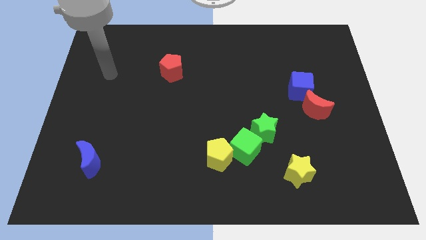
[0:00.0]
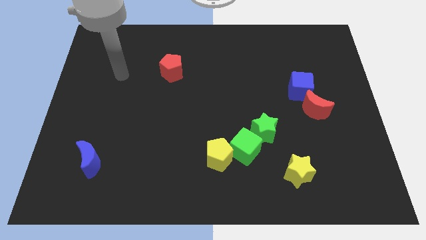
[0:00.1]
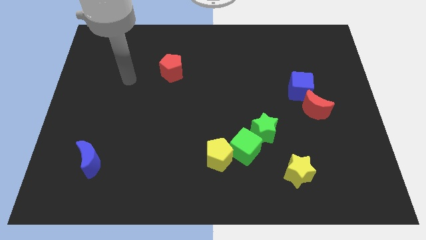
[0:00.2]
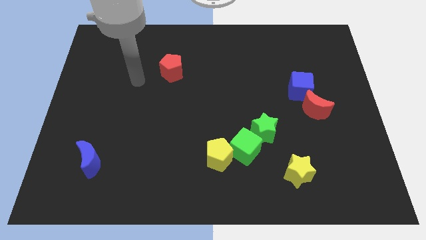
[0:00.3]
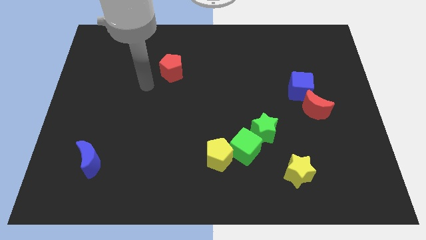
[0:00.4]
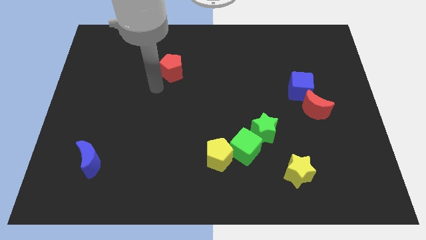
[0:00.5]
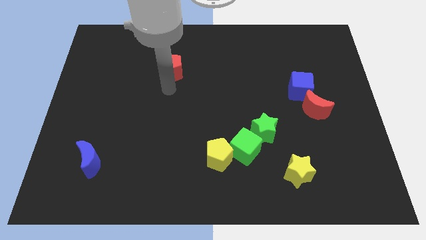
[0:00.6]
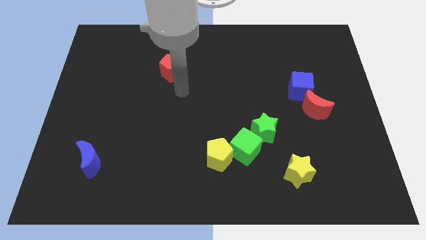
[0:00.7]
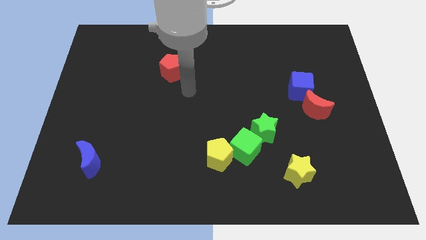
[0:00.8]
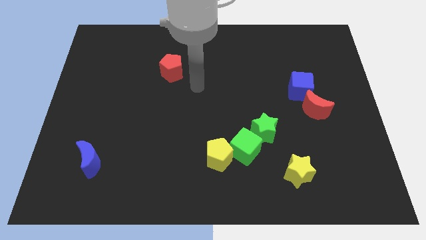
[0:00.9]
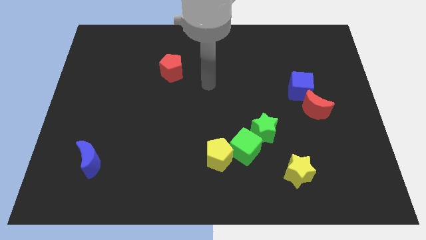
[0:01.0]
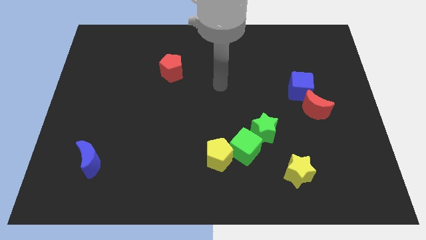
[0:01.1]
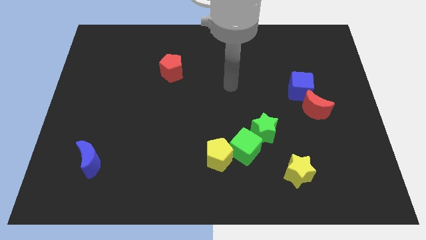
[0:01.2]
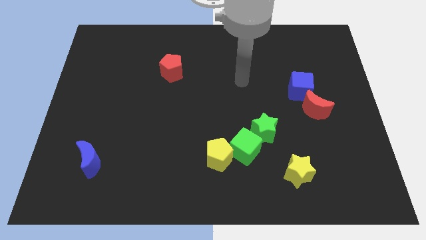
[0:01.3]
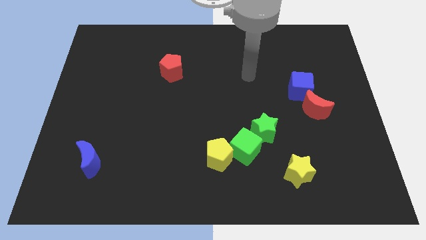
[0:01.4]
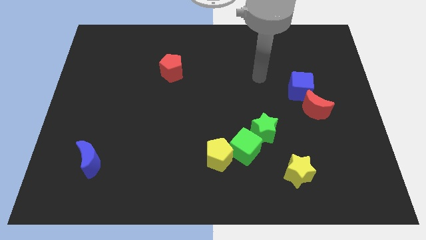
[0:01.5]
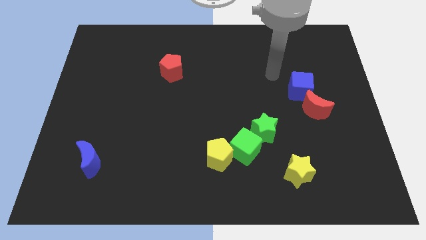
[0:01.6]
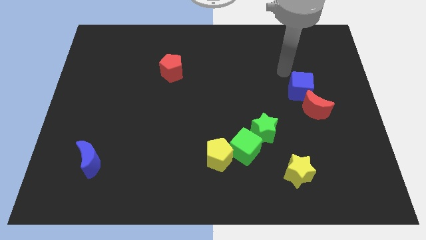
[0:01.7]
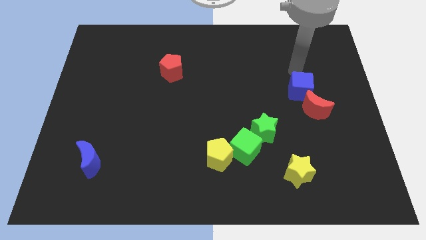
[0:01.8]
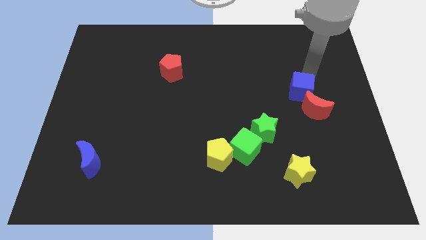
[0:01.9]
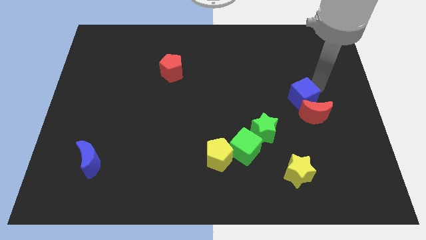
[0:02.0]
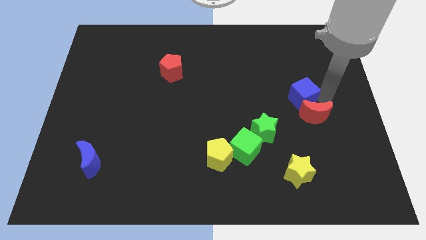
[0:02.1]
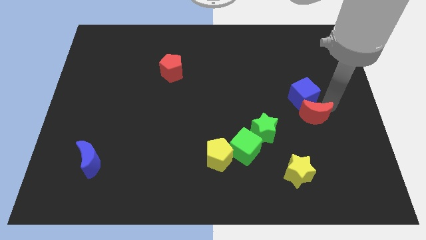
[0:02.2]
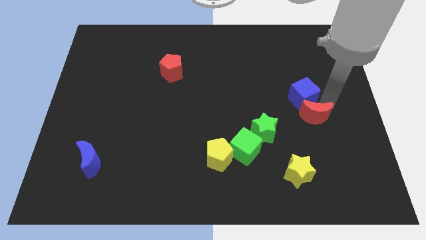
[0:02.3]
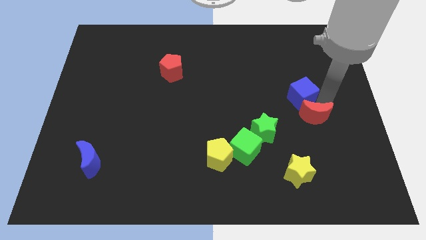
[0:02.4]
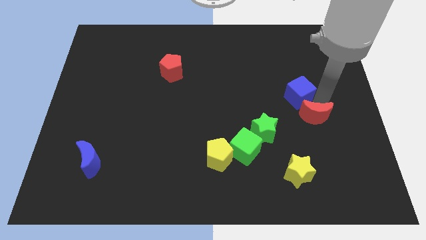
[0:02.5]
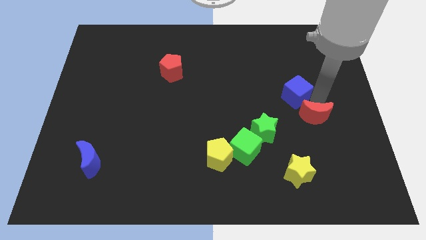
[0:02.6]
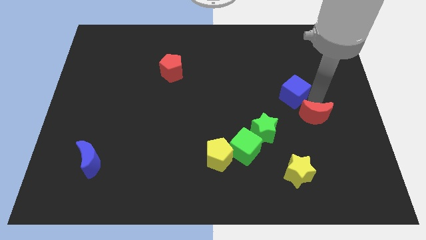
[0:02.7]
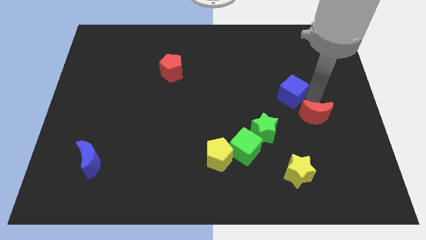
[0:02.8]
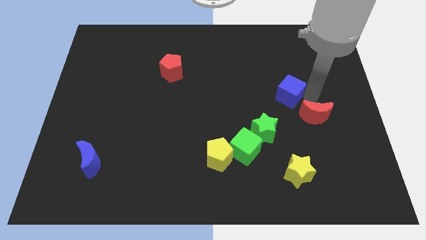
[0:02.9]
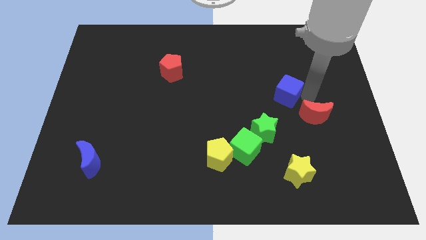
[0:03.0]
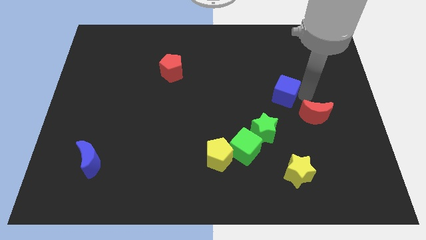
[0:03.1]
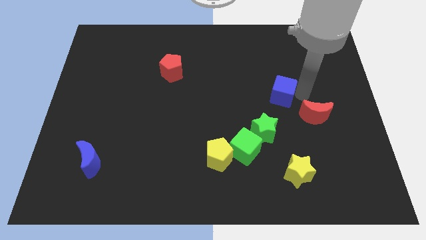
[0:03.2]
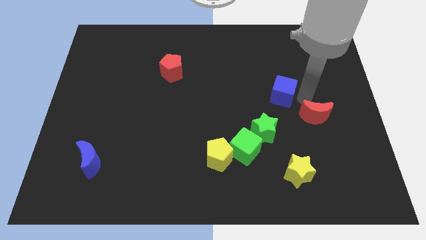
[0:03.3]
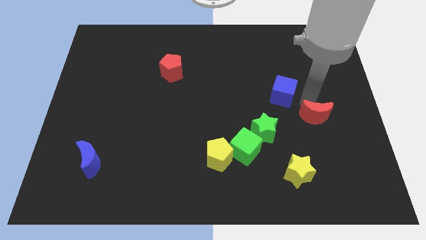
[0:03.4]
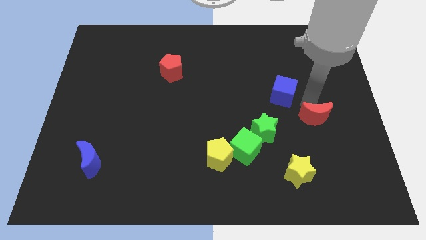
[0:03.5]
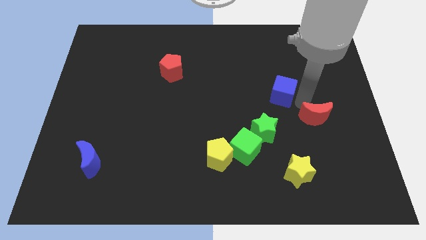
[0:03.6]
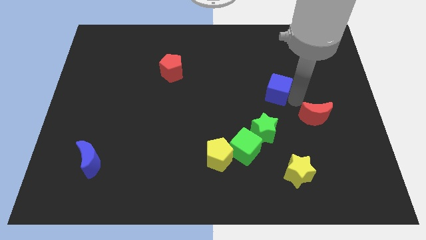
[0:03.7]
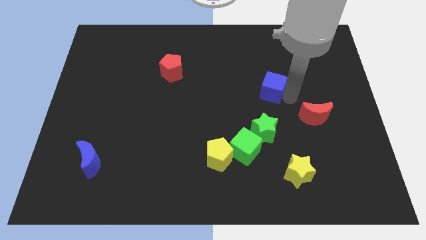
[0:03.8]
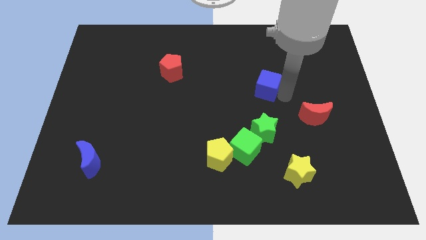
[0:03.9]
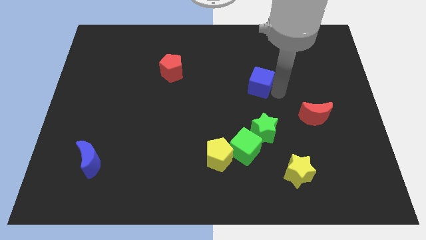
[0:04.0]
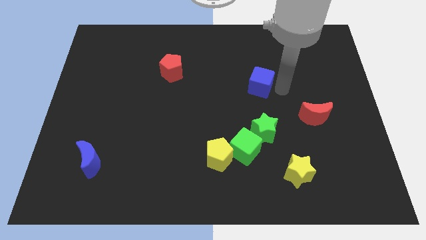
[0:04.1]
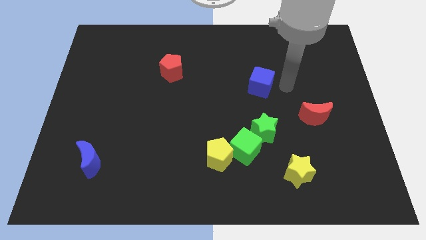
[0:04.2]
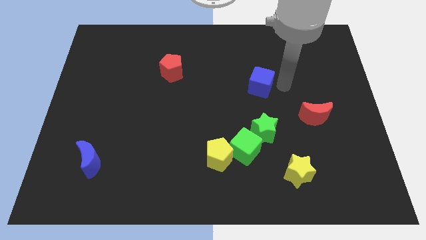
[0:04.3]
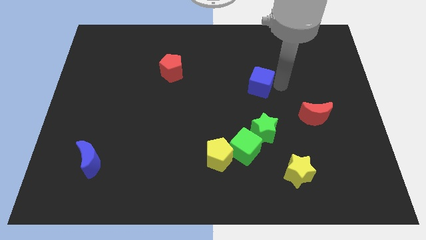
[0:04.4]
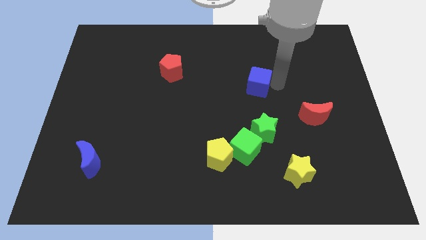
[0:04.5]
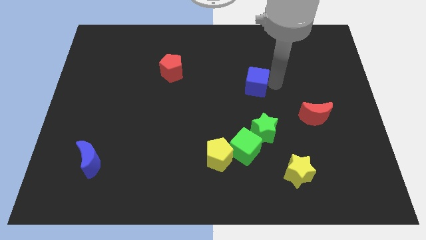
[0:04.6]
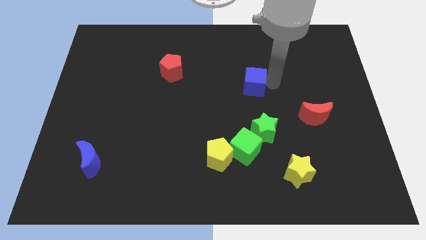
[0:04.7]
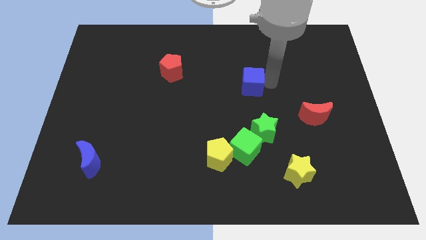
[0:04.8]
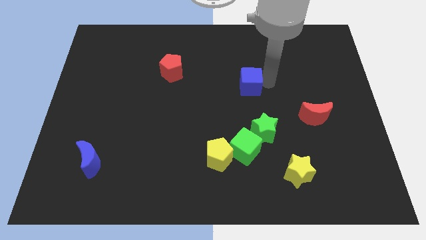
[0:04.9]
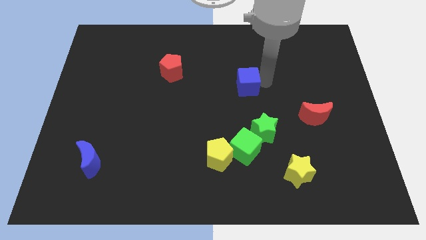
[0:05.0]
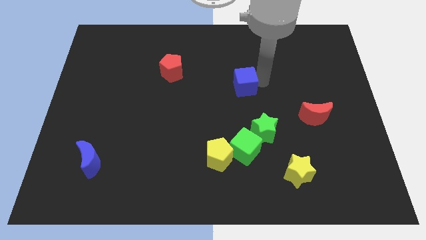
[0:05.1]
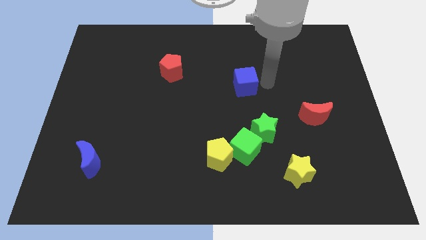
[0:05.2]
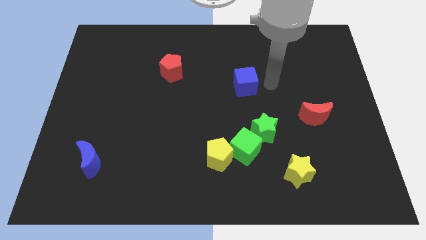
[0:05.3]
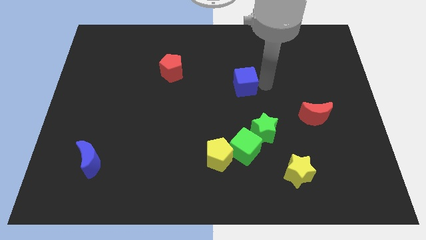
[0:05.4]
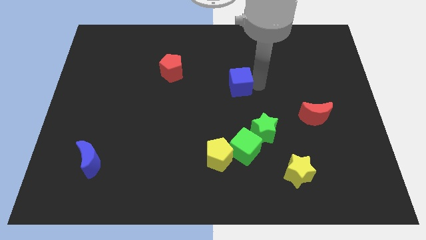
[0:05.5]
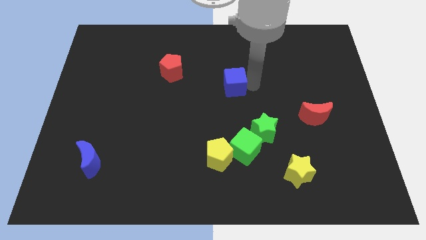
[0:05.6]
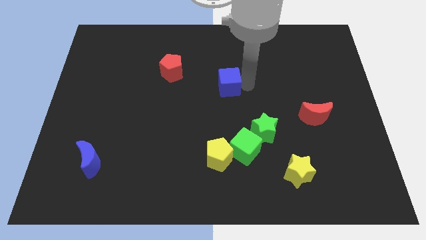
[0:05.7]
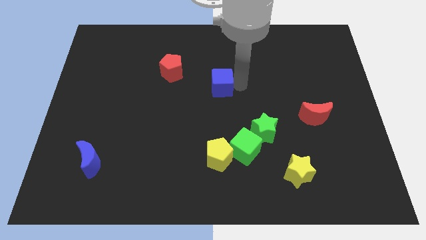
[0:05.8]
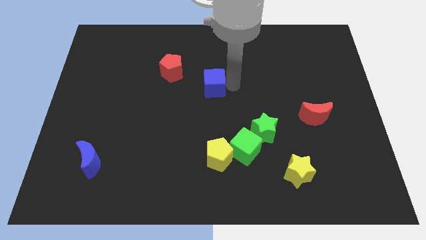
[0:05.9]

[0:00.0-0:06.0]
push the blue cube left

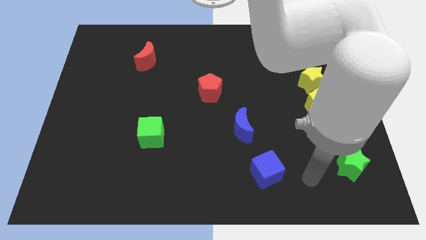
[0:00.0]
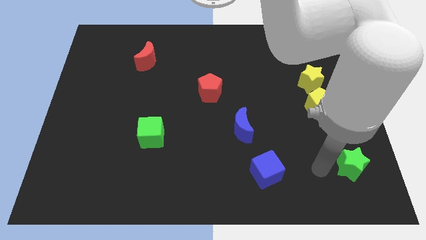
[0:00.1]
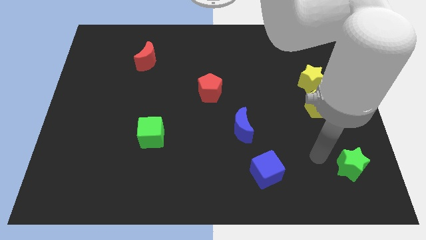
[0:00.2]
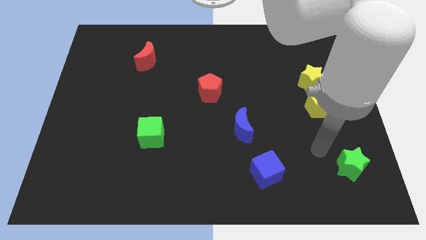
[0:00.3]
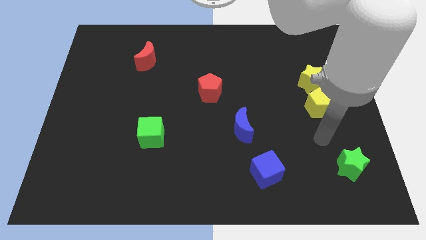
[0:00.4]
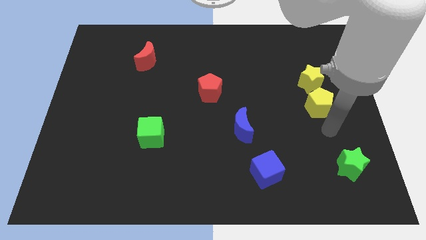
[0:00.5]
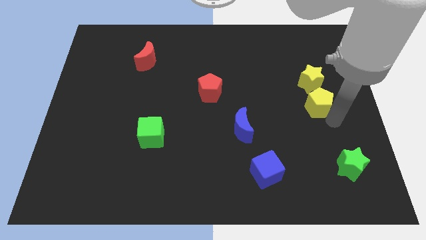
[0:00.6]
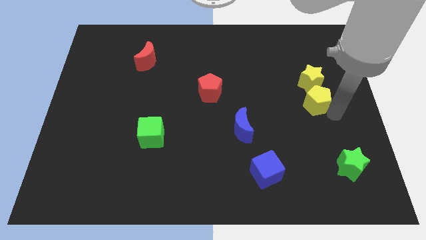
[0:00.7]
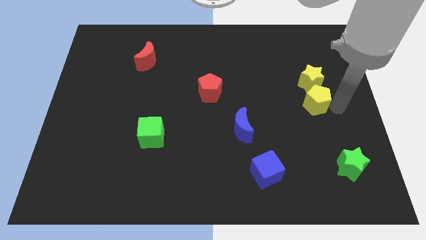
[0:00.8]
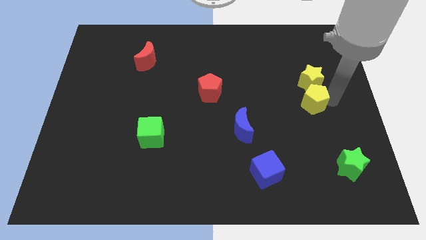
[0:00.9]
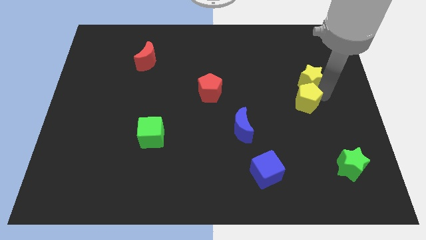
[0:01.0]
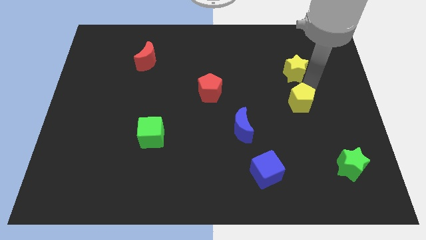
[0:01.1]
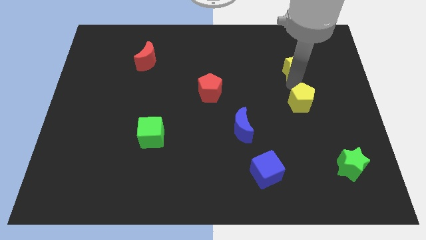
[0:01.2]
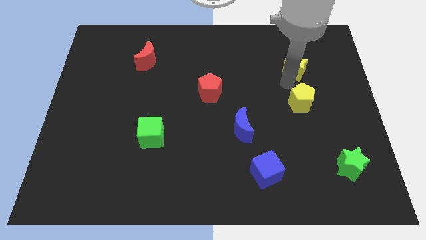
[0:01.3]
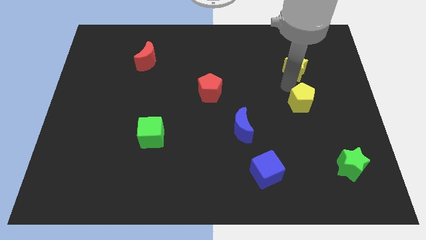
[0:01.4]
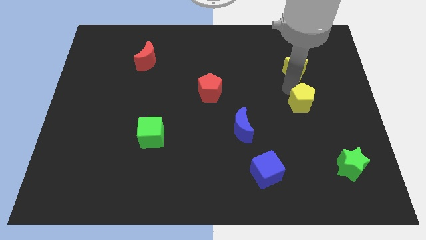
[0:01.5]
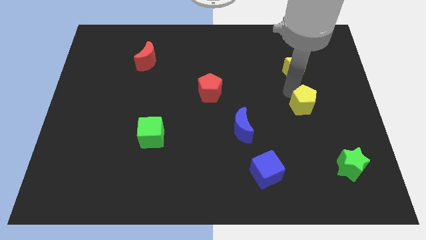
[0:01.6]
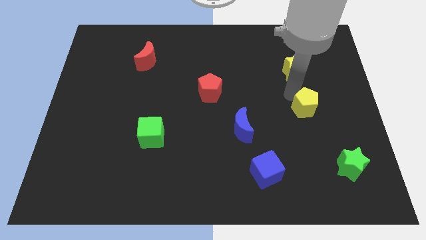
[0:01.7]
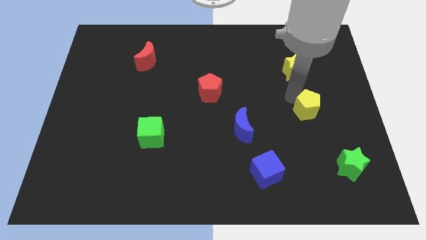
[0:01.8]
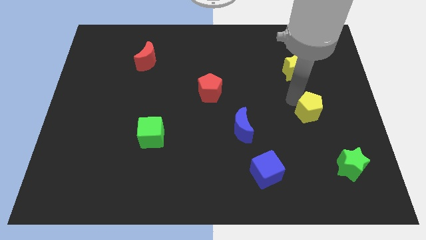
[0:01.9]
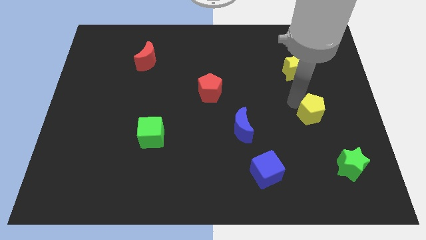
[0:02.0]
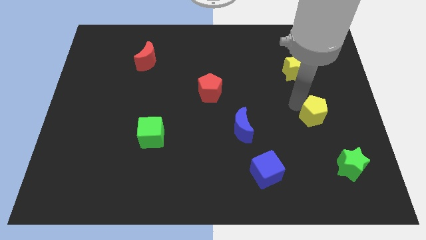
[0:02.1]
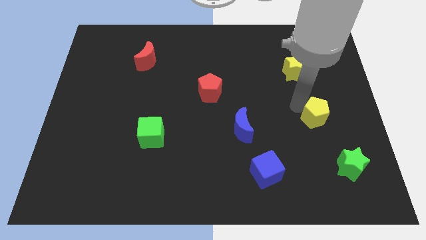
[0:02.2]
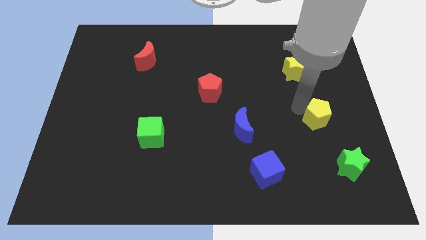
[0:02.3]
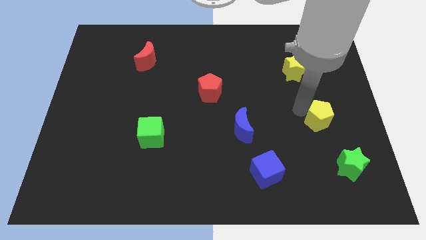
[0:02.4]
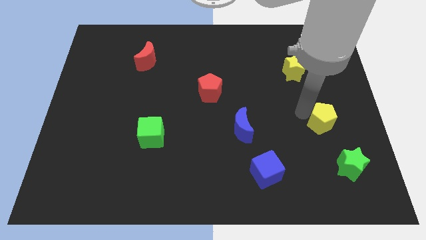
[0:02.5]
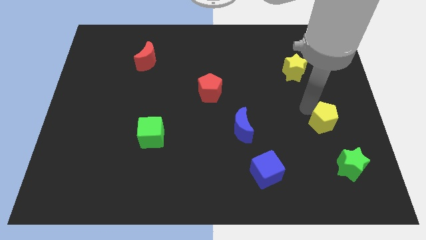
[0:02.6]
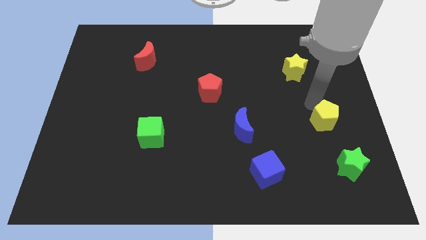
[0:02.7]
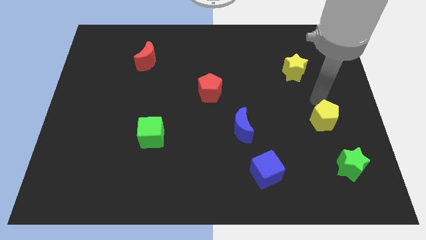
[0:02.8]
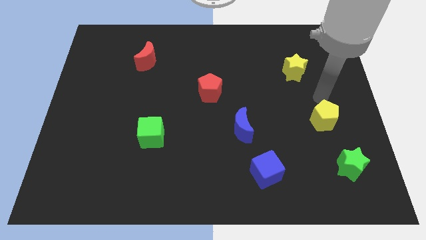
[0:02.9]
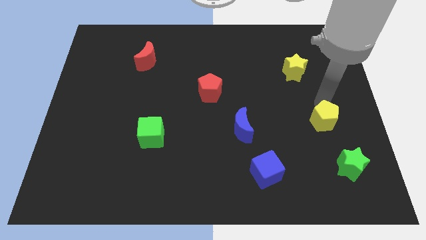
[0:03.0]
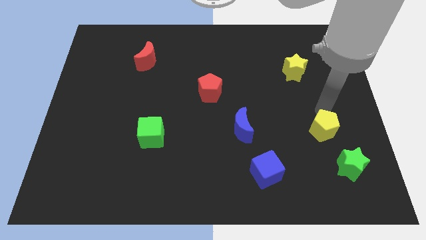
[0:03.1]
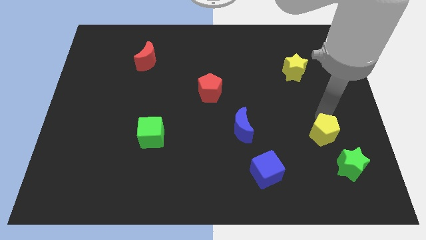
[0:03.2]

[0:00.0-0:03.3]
move the yellow pentagon down a little
